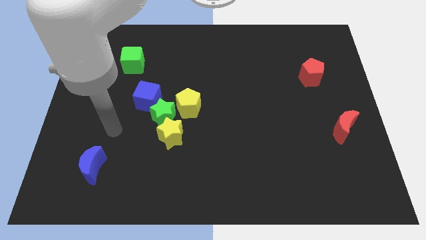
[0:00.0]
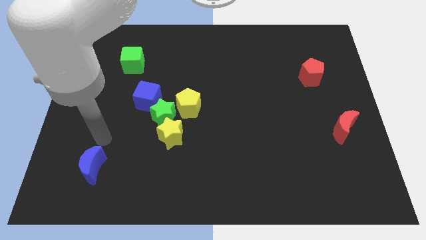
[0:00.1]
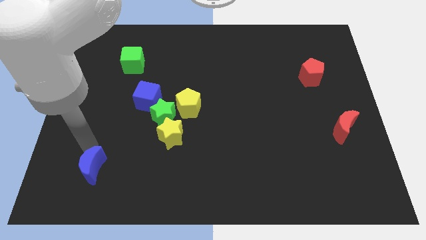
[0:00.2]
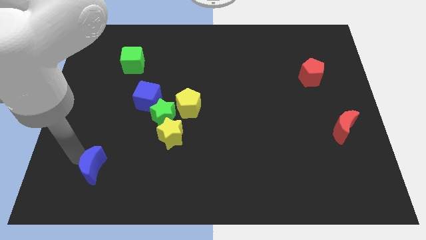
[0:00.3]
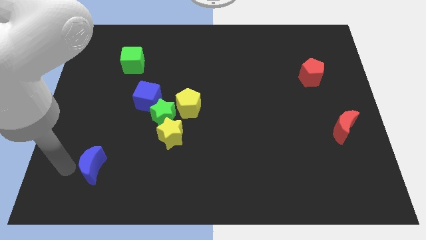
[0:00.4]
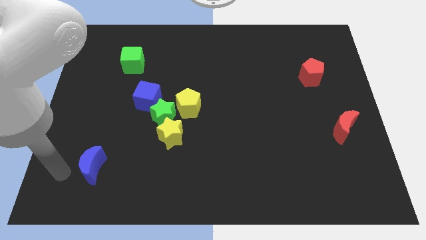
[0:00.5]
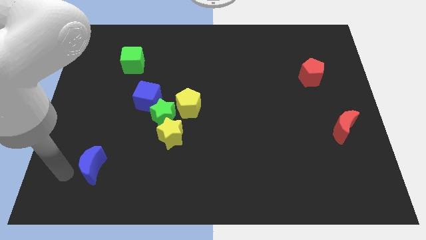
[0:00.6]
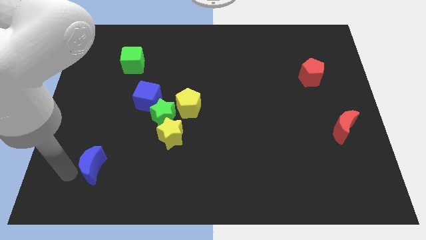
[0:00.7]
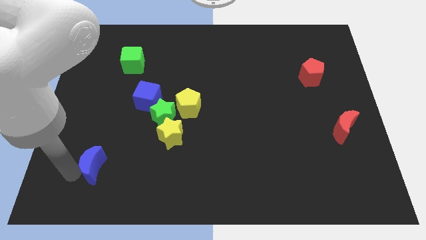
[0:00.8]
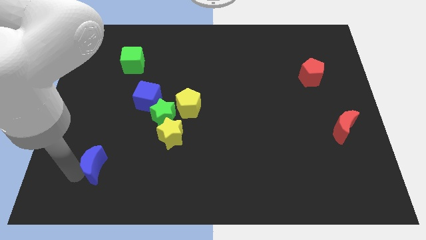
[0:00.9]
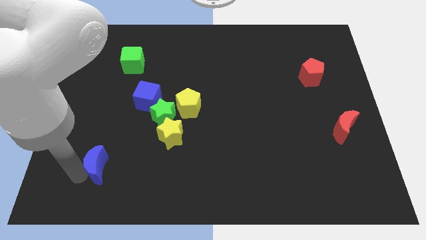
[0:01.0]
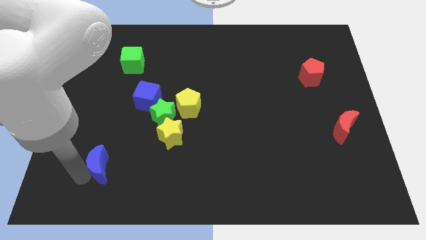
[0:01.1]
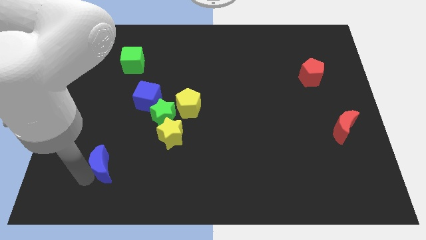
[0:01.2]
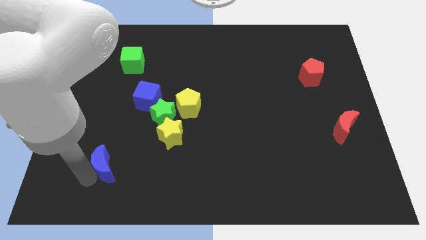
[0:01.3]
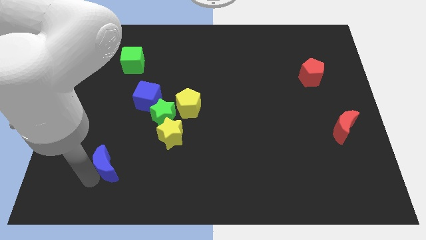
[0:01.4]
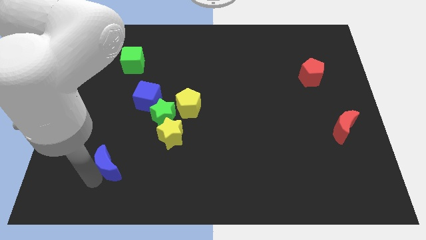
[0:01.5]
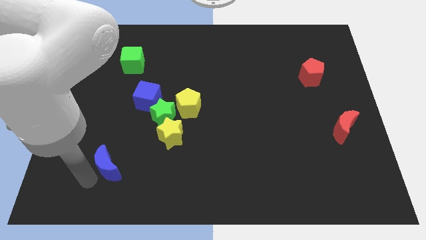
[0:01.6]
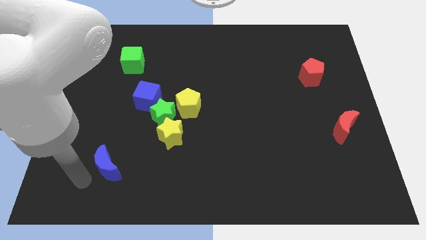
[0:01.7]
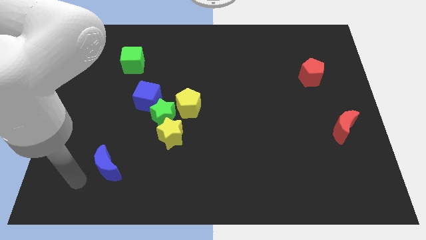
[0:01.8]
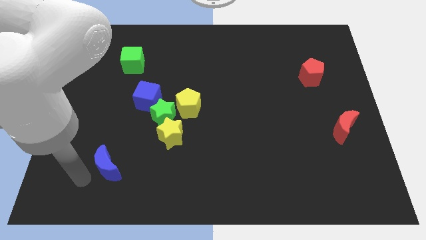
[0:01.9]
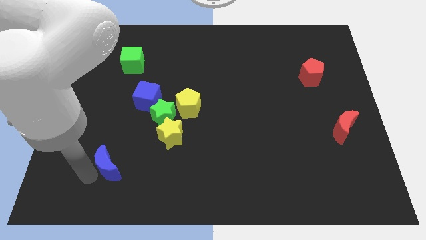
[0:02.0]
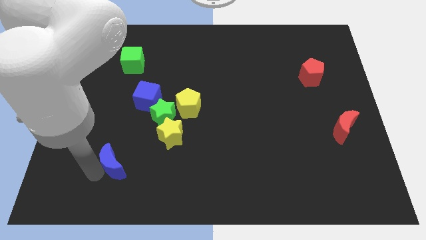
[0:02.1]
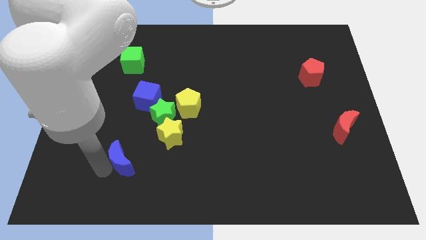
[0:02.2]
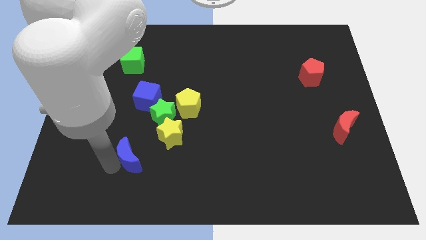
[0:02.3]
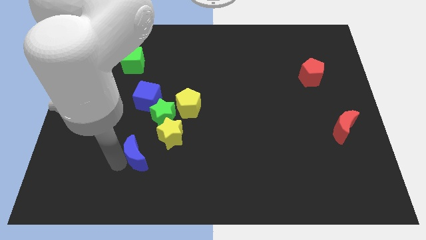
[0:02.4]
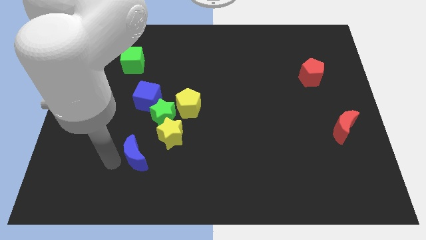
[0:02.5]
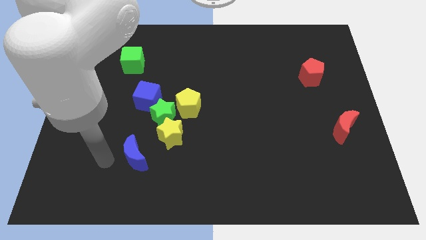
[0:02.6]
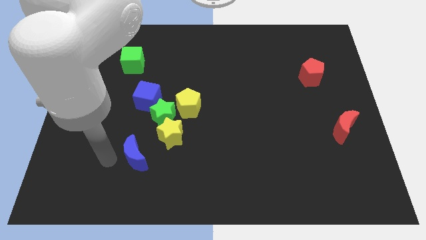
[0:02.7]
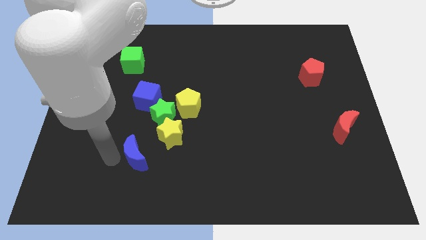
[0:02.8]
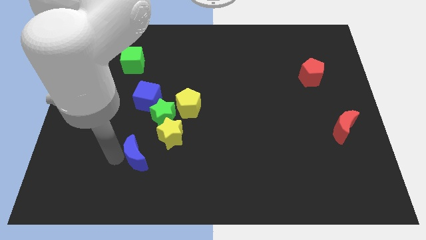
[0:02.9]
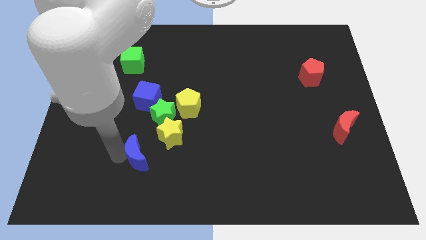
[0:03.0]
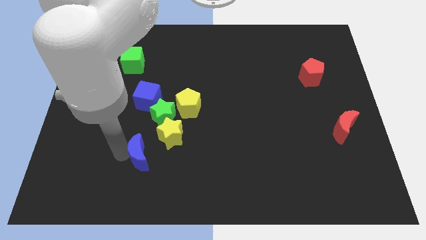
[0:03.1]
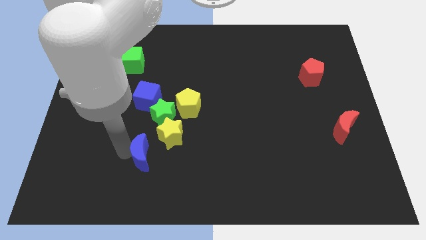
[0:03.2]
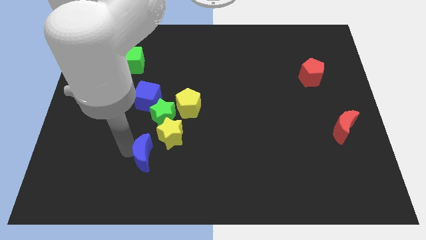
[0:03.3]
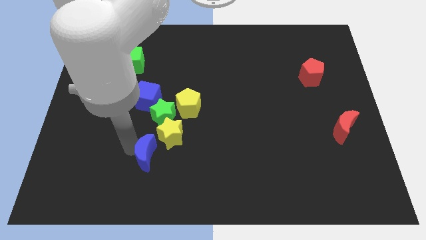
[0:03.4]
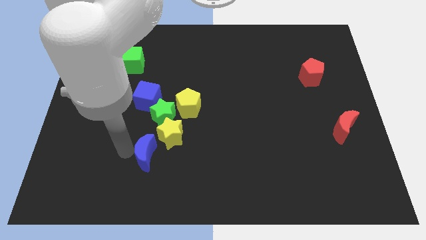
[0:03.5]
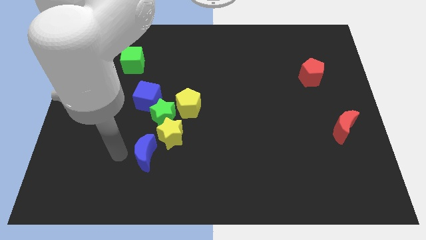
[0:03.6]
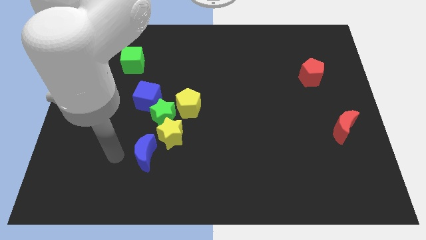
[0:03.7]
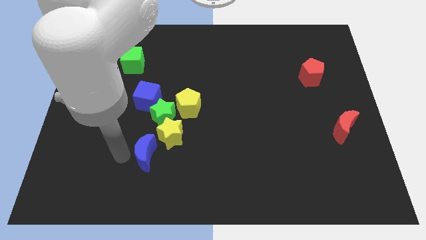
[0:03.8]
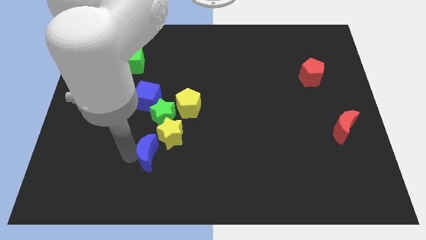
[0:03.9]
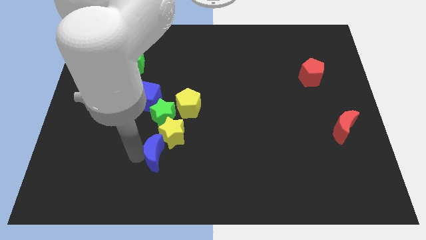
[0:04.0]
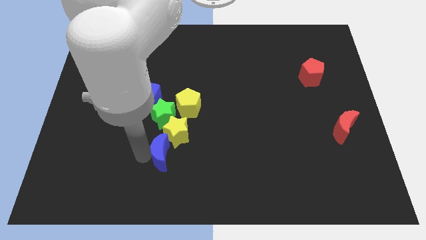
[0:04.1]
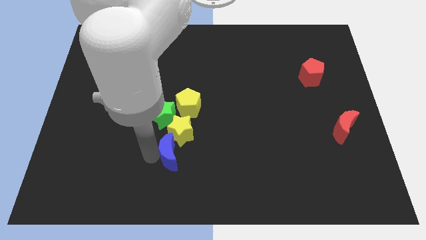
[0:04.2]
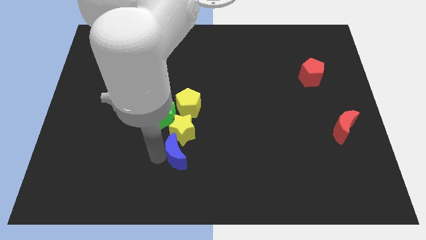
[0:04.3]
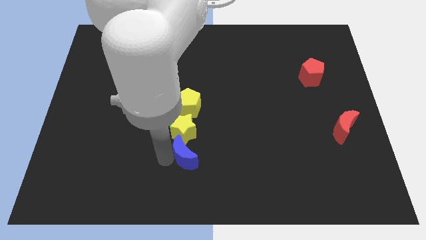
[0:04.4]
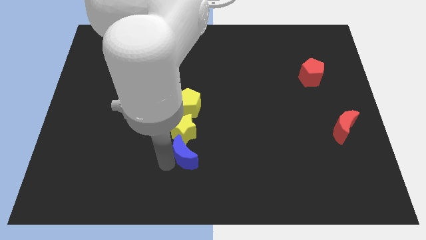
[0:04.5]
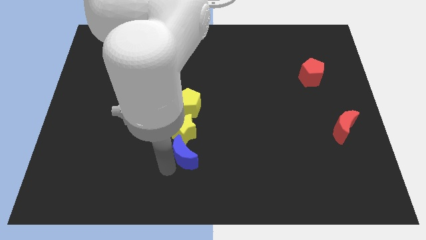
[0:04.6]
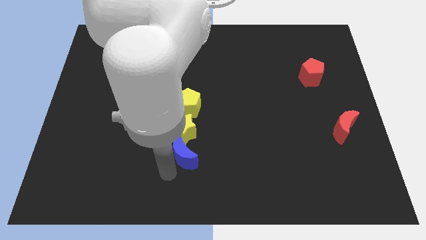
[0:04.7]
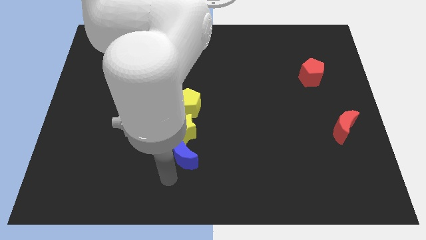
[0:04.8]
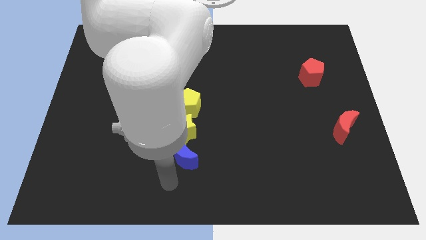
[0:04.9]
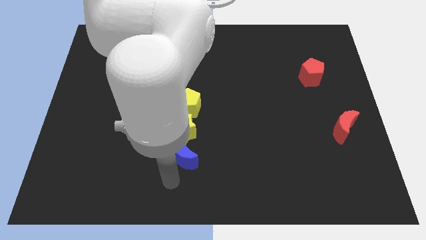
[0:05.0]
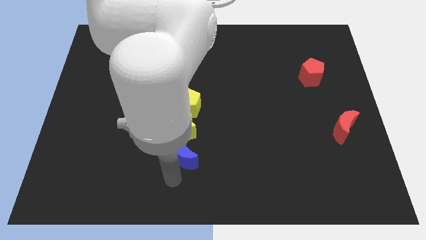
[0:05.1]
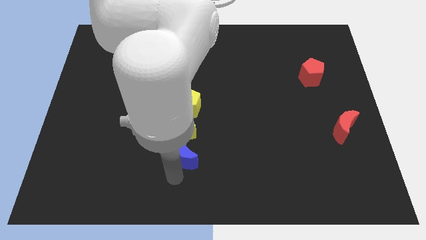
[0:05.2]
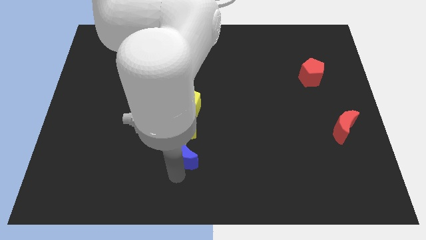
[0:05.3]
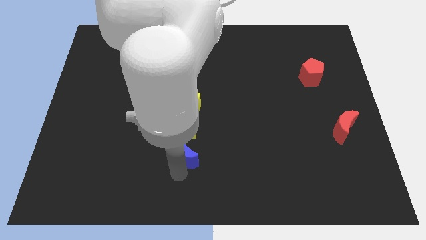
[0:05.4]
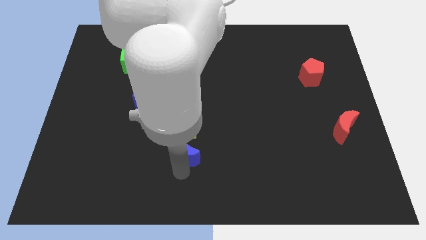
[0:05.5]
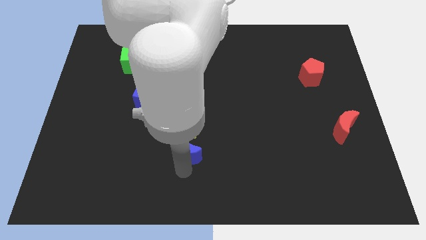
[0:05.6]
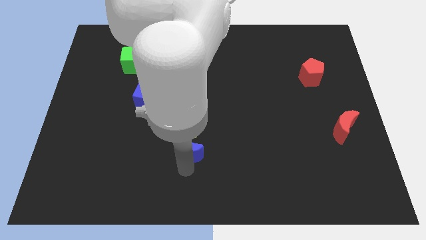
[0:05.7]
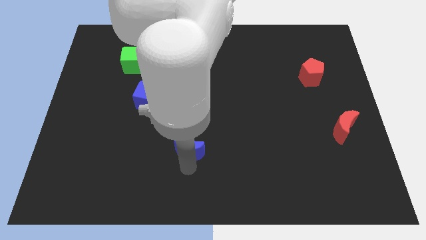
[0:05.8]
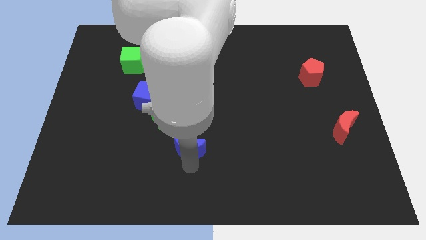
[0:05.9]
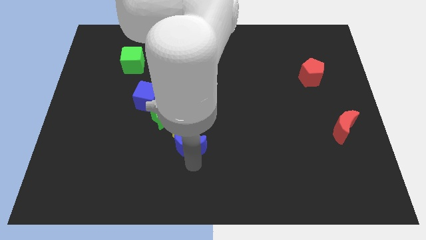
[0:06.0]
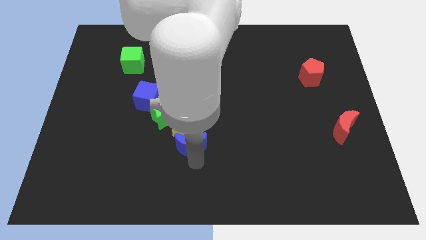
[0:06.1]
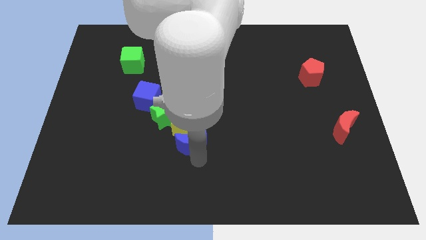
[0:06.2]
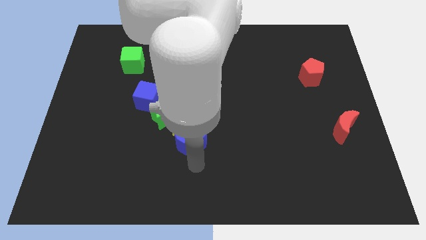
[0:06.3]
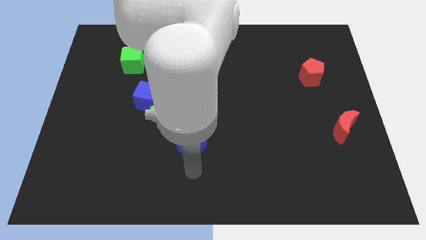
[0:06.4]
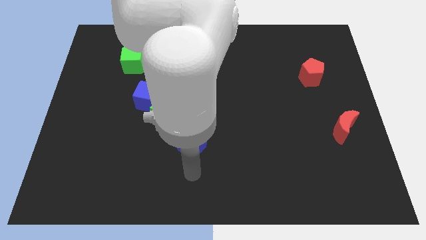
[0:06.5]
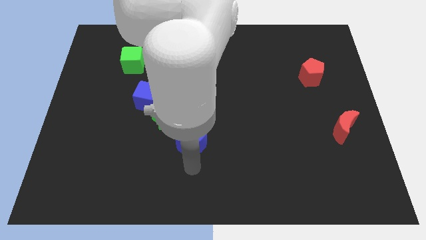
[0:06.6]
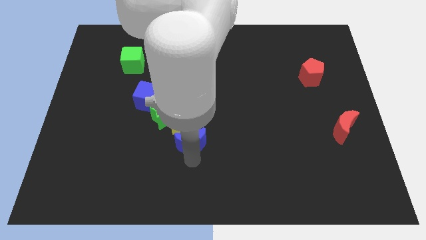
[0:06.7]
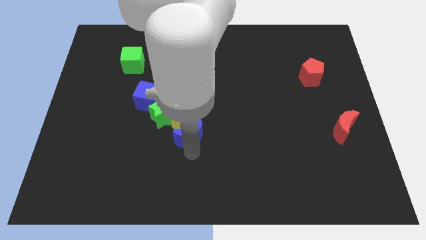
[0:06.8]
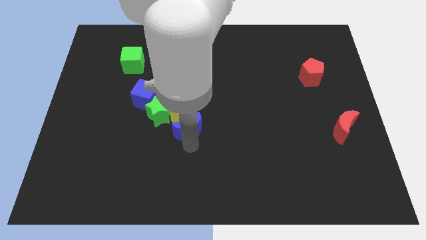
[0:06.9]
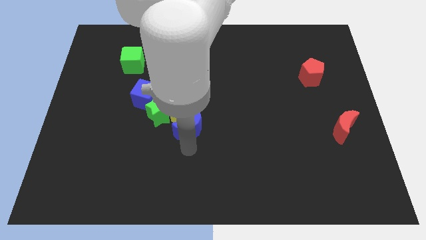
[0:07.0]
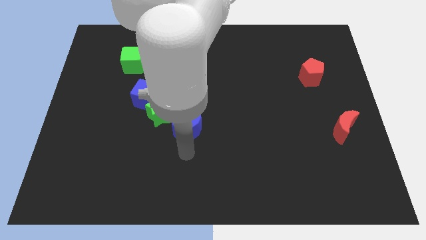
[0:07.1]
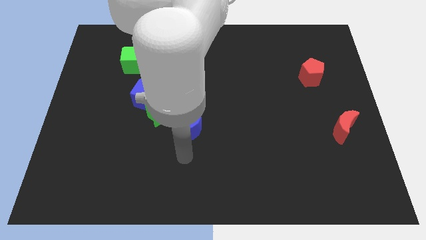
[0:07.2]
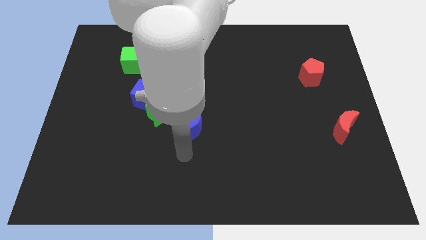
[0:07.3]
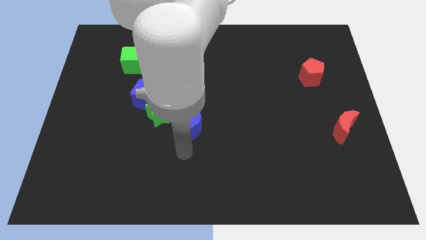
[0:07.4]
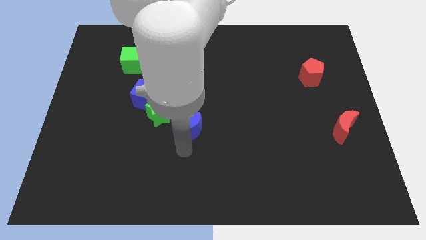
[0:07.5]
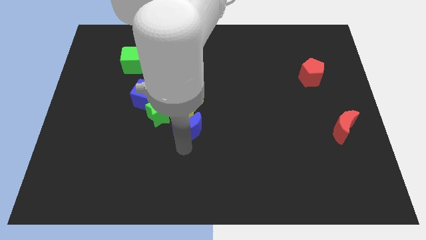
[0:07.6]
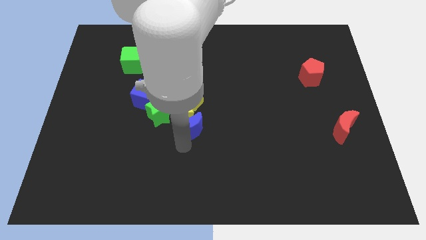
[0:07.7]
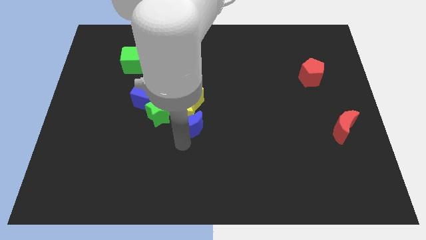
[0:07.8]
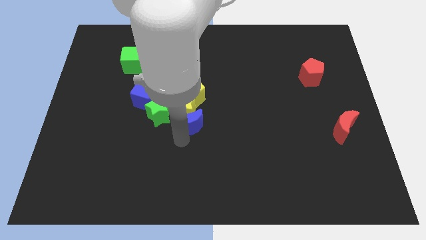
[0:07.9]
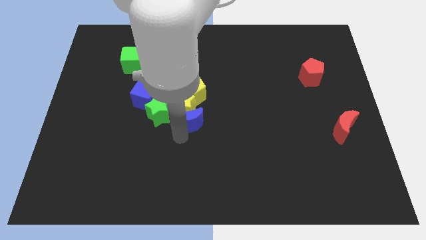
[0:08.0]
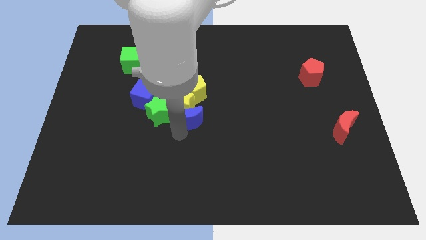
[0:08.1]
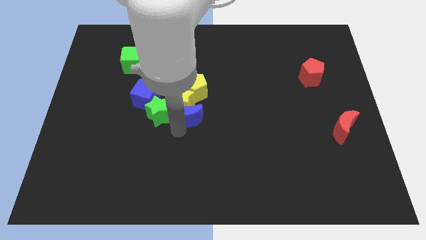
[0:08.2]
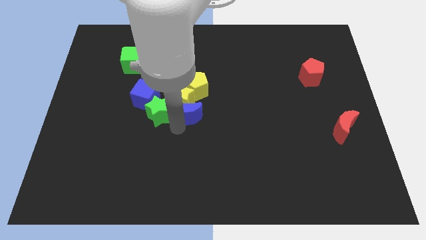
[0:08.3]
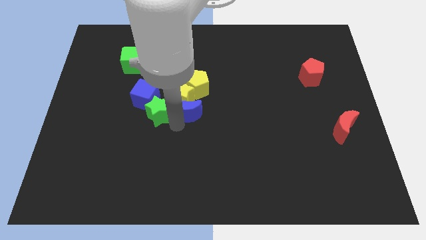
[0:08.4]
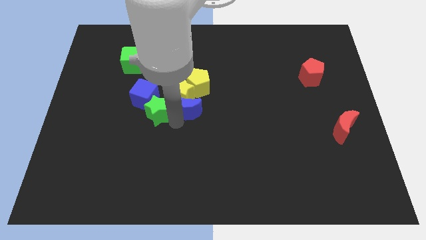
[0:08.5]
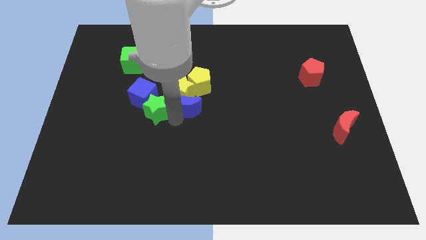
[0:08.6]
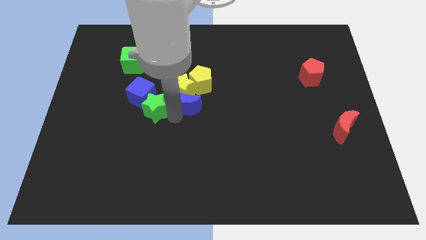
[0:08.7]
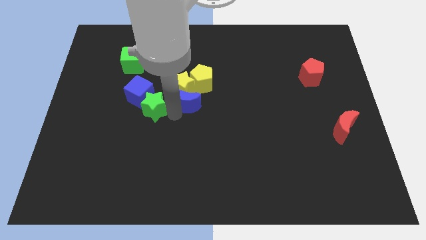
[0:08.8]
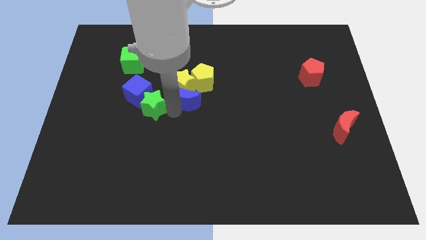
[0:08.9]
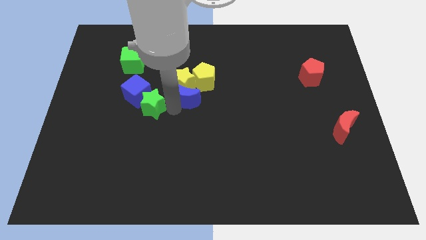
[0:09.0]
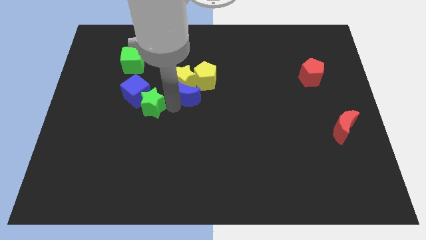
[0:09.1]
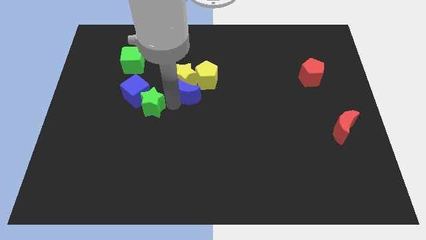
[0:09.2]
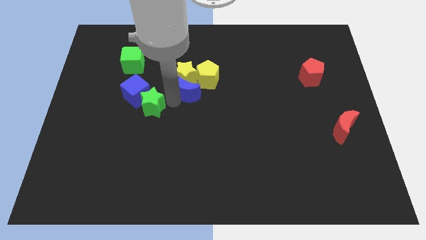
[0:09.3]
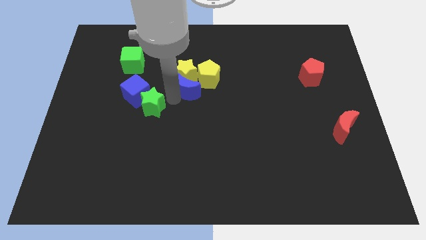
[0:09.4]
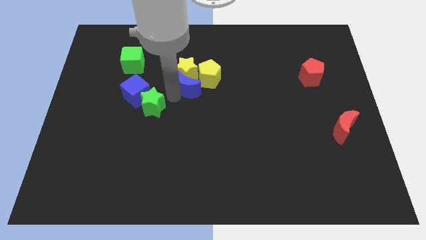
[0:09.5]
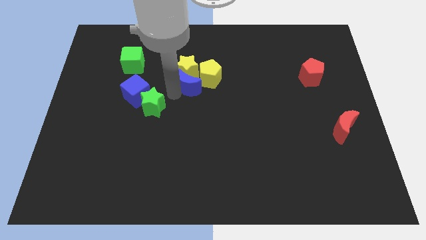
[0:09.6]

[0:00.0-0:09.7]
slide the blue moon next to the yellow pentagon
